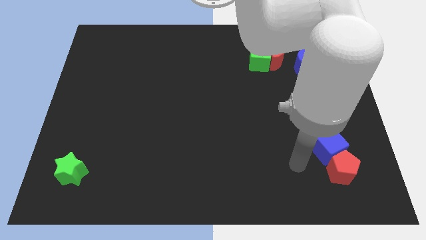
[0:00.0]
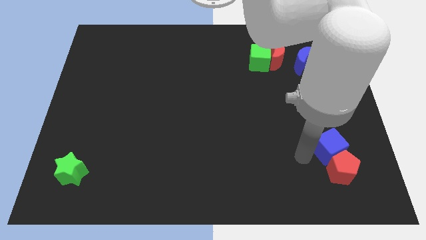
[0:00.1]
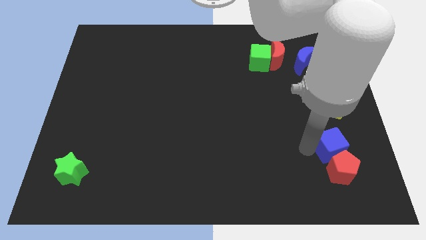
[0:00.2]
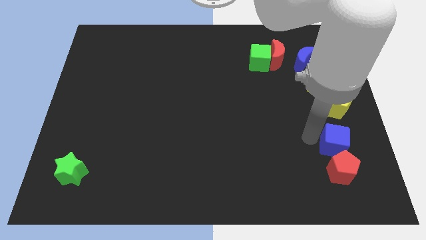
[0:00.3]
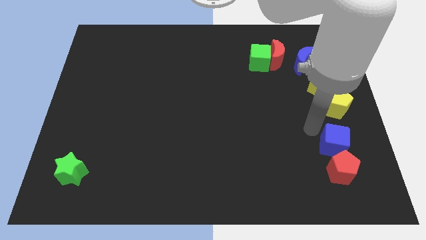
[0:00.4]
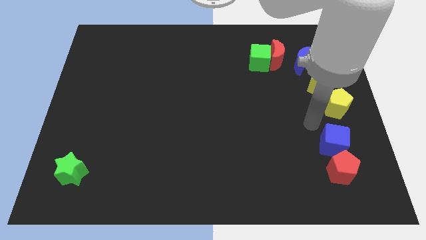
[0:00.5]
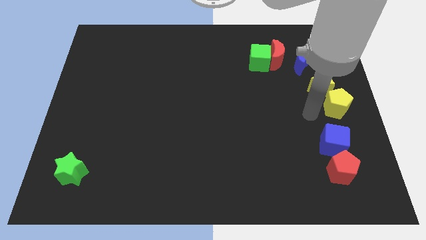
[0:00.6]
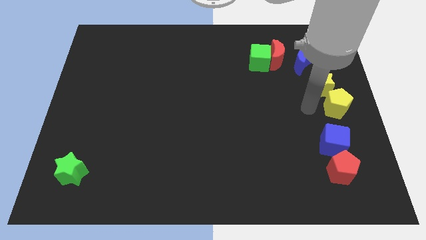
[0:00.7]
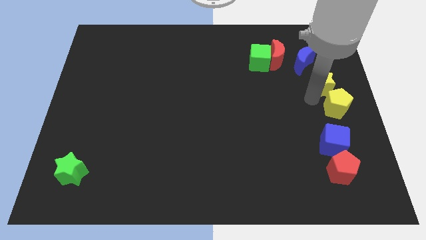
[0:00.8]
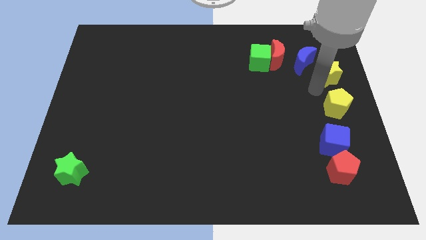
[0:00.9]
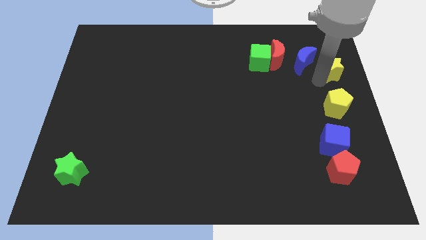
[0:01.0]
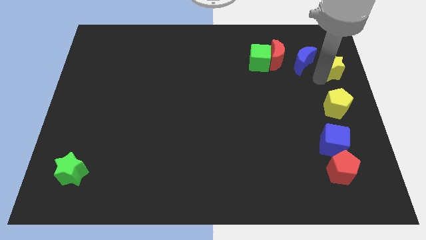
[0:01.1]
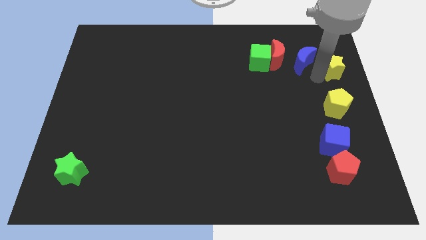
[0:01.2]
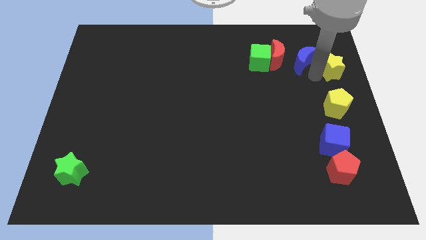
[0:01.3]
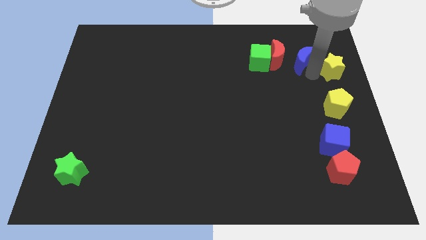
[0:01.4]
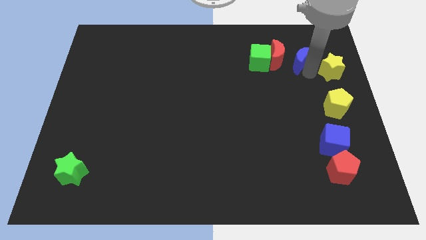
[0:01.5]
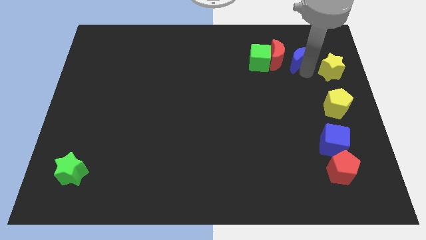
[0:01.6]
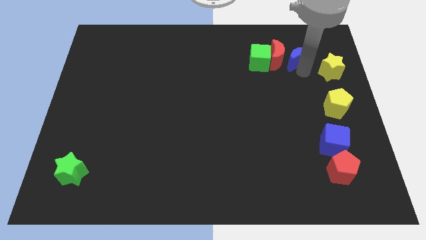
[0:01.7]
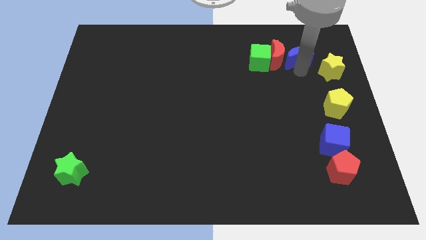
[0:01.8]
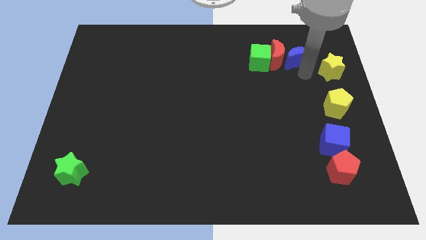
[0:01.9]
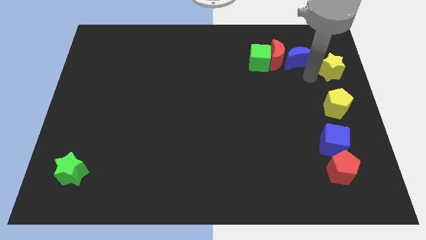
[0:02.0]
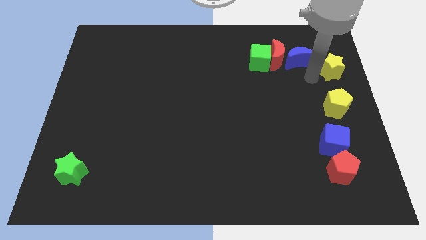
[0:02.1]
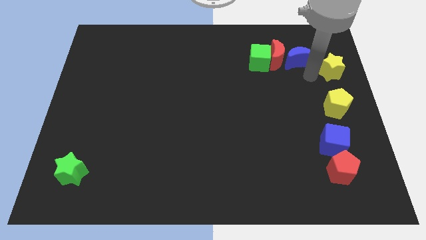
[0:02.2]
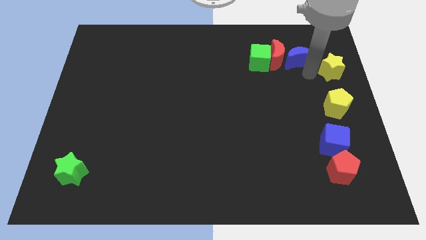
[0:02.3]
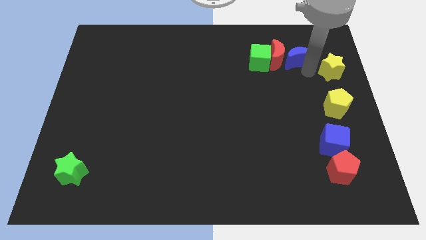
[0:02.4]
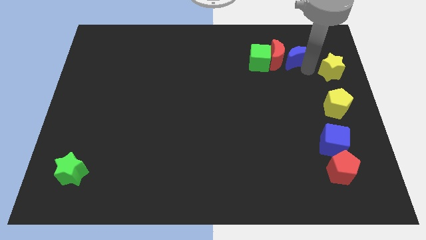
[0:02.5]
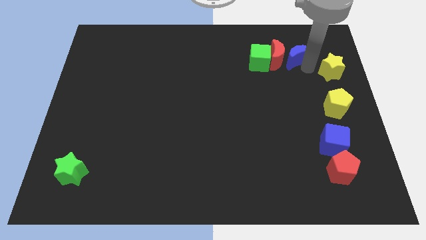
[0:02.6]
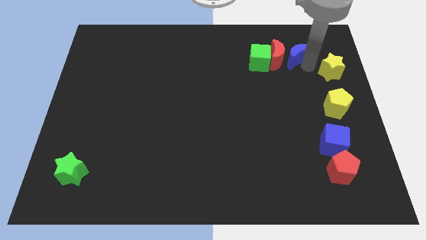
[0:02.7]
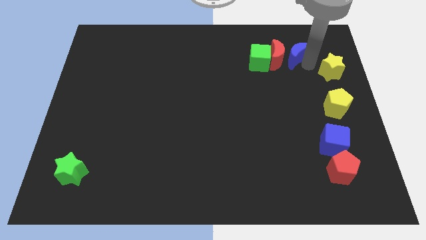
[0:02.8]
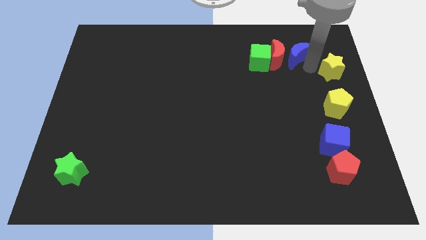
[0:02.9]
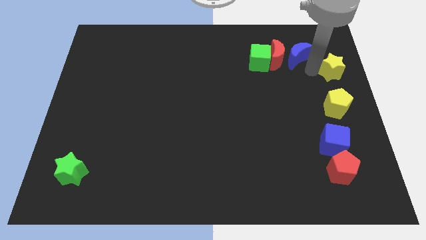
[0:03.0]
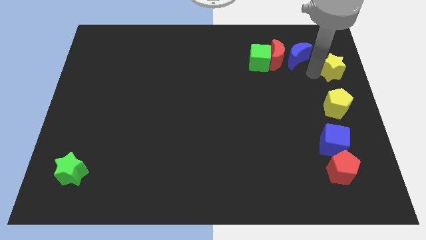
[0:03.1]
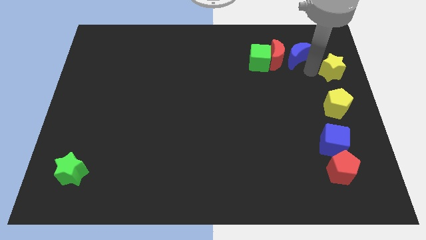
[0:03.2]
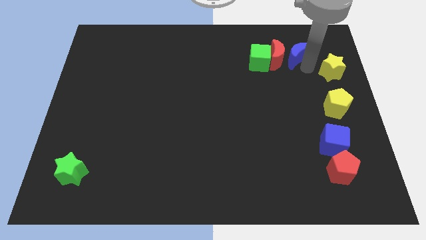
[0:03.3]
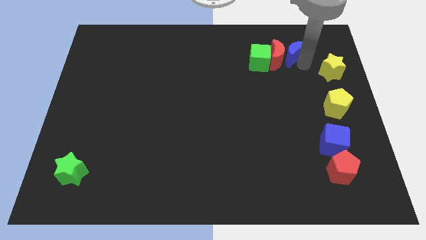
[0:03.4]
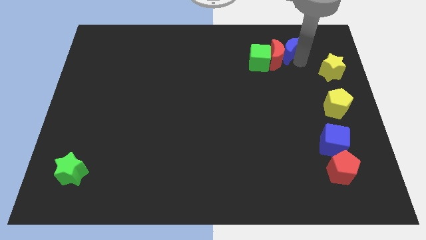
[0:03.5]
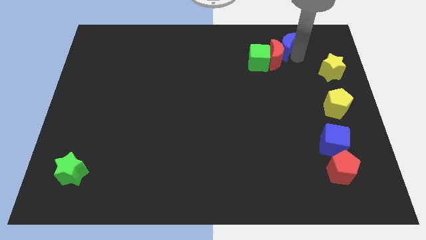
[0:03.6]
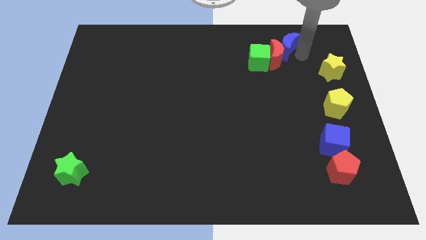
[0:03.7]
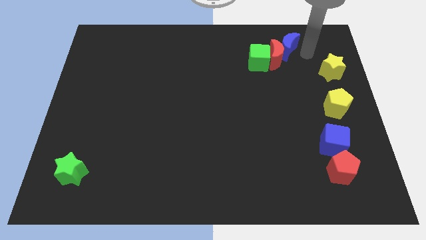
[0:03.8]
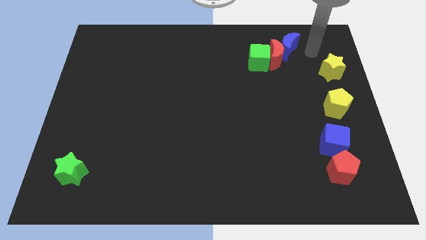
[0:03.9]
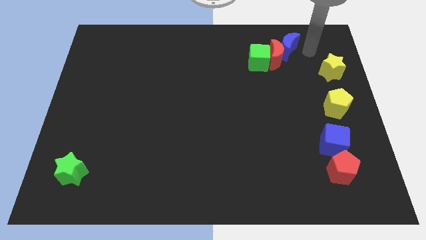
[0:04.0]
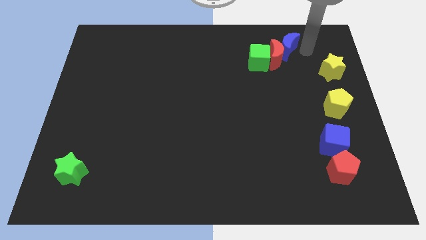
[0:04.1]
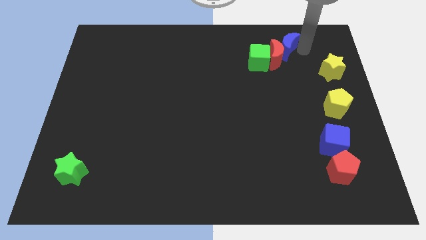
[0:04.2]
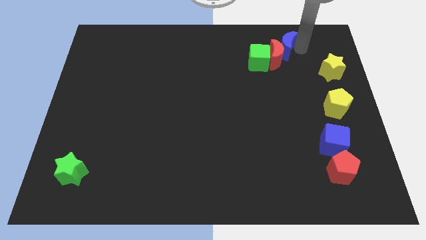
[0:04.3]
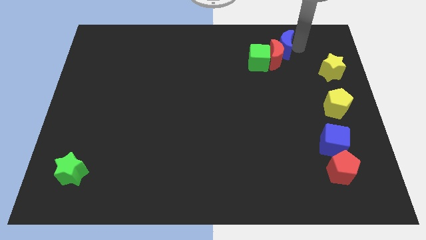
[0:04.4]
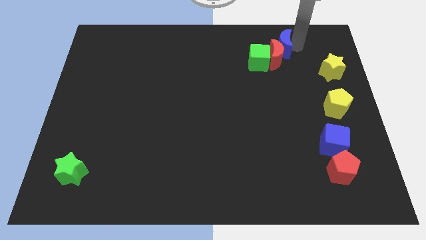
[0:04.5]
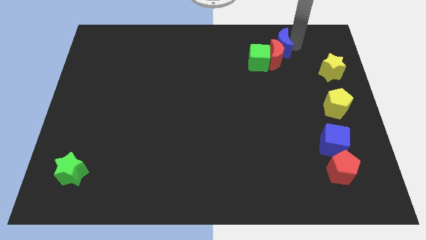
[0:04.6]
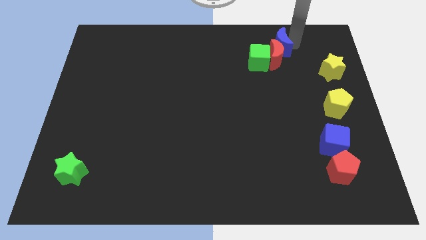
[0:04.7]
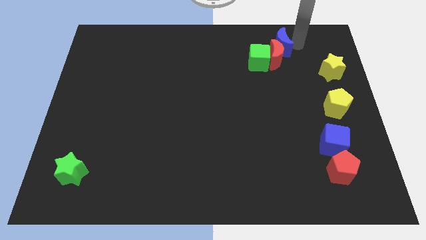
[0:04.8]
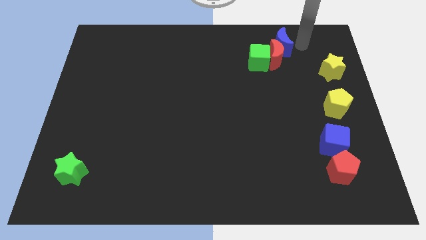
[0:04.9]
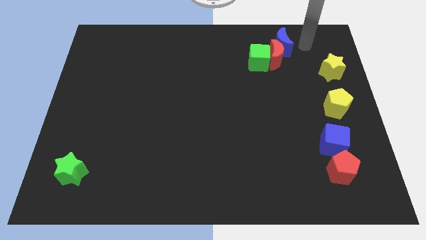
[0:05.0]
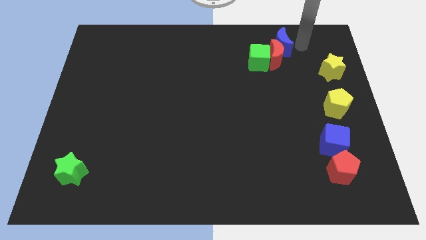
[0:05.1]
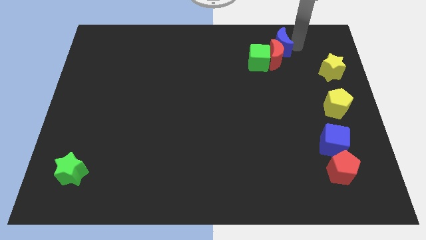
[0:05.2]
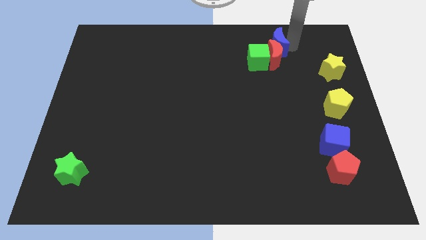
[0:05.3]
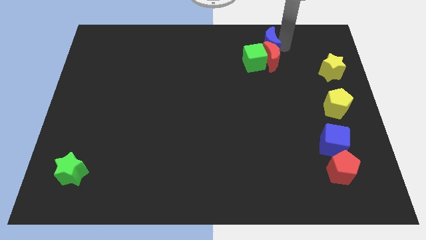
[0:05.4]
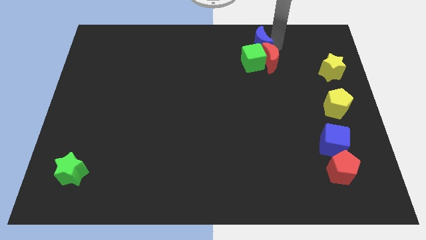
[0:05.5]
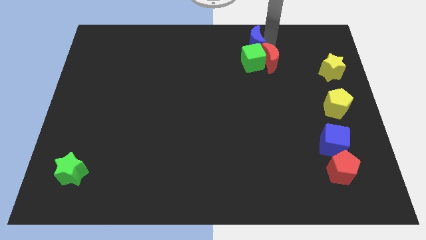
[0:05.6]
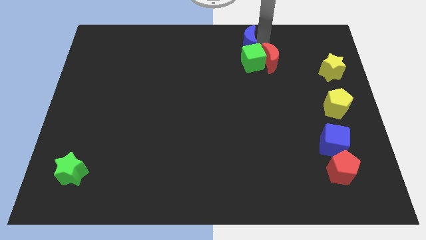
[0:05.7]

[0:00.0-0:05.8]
slide the blue moon to the top
